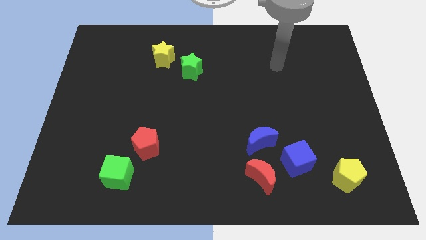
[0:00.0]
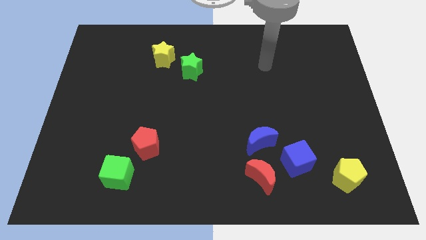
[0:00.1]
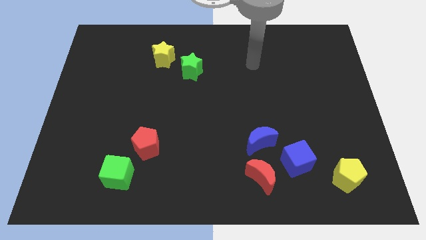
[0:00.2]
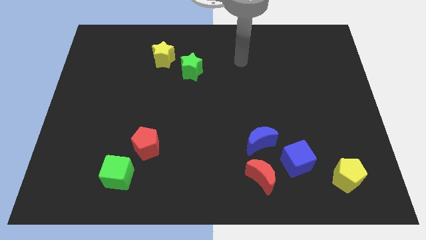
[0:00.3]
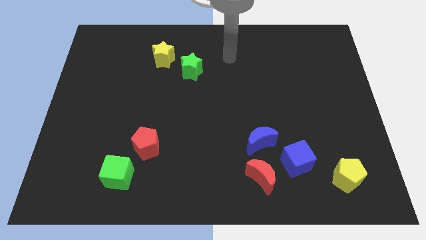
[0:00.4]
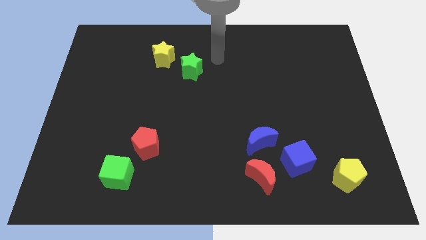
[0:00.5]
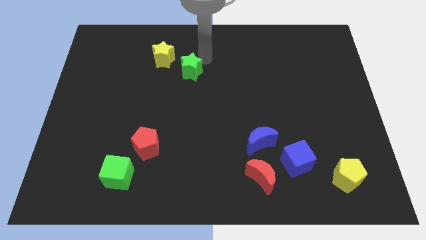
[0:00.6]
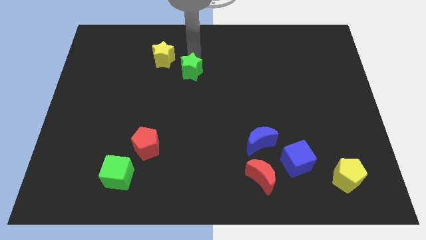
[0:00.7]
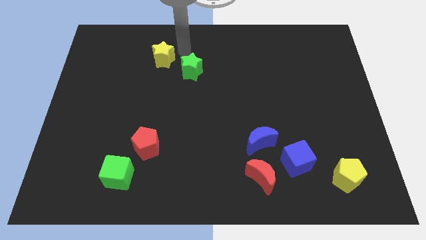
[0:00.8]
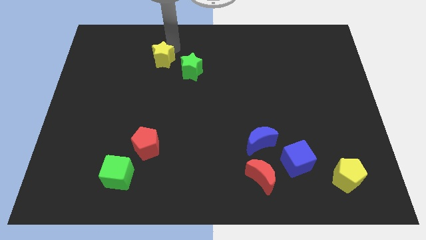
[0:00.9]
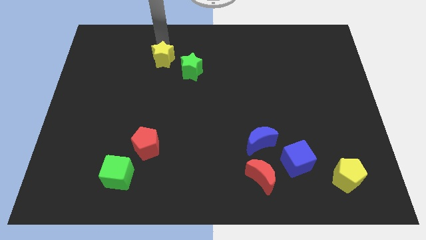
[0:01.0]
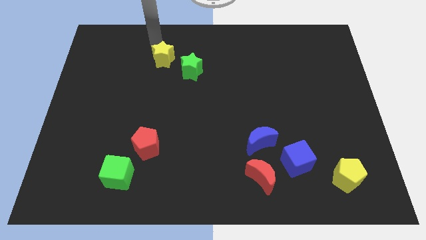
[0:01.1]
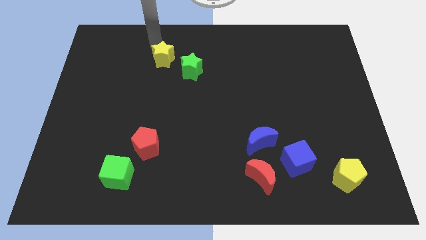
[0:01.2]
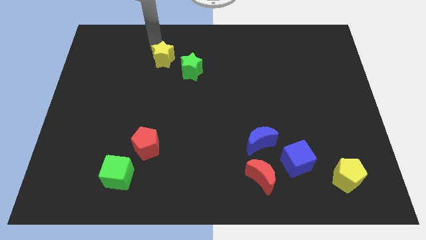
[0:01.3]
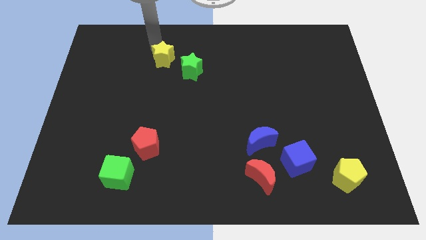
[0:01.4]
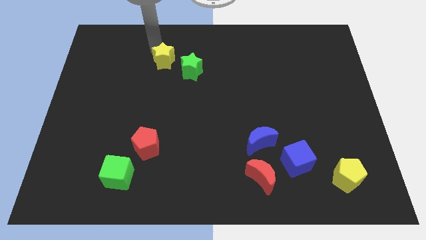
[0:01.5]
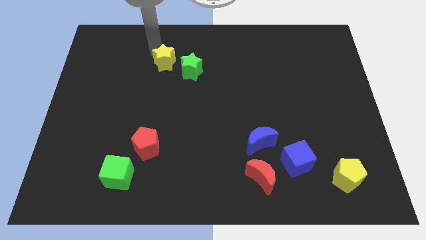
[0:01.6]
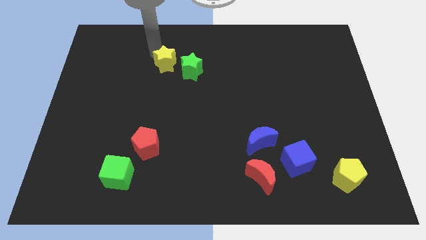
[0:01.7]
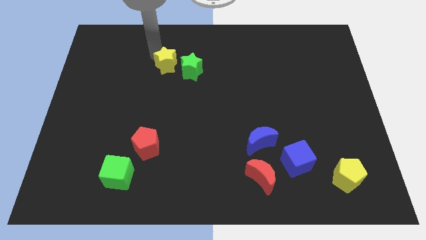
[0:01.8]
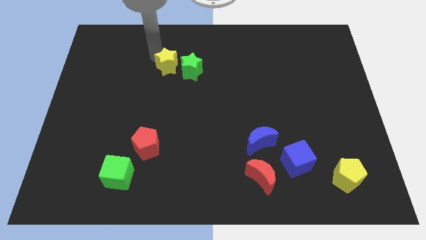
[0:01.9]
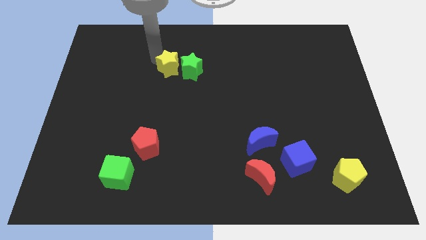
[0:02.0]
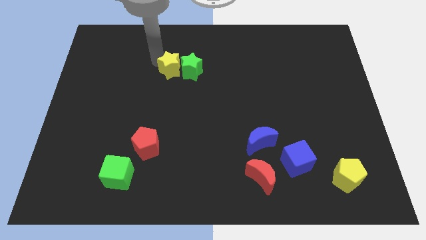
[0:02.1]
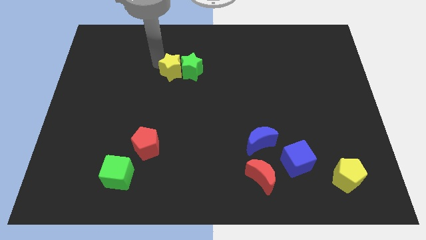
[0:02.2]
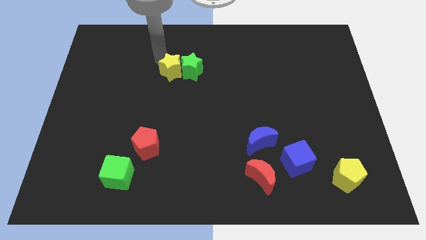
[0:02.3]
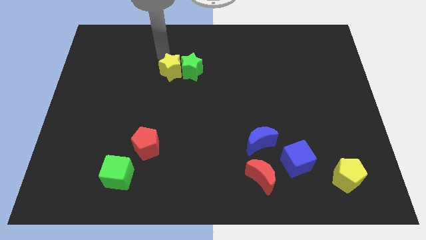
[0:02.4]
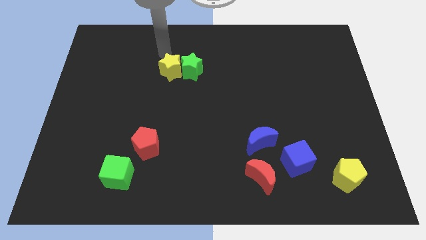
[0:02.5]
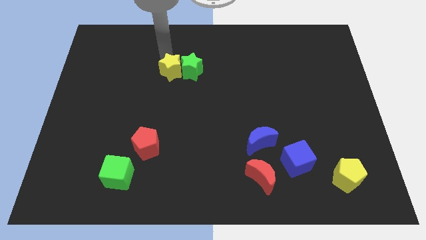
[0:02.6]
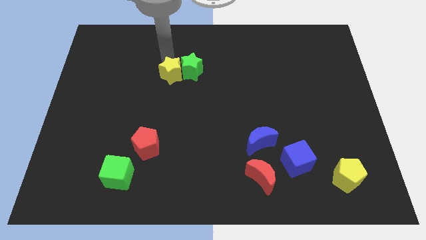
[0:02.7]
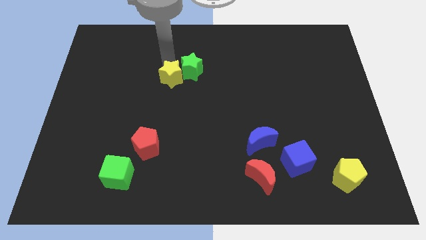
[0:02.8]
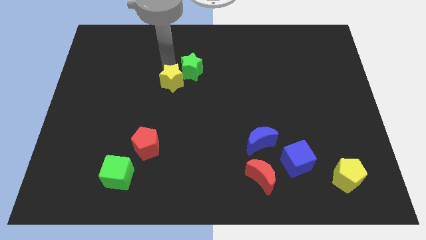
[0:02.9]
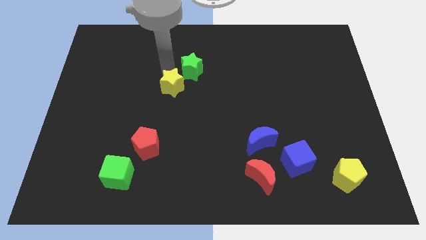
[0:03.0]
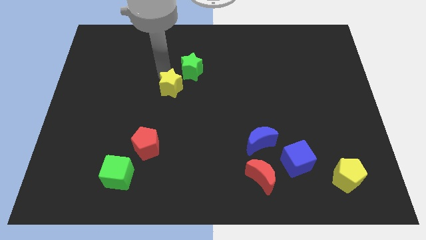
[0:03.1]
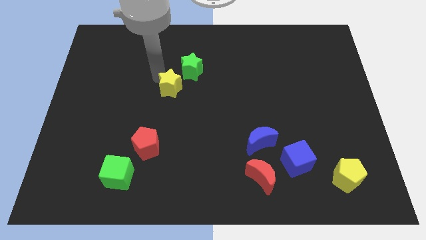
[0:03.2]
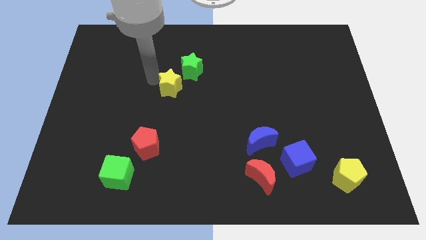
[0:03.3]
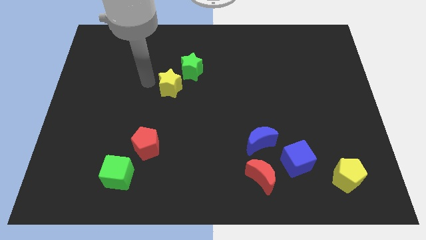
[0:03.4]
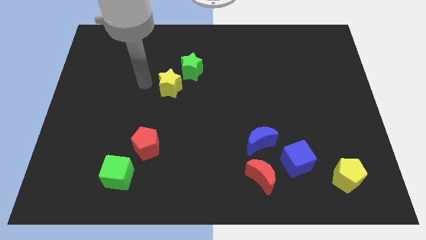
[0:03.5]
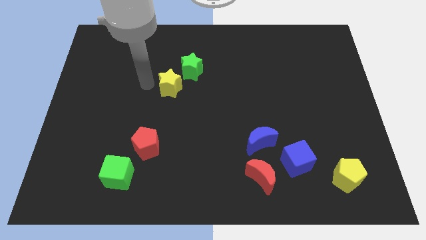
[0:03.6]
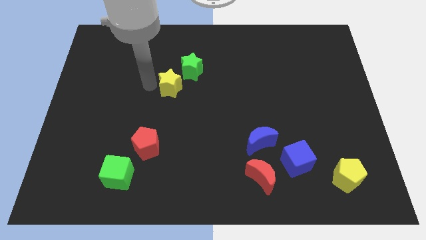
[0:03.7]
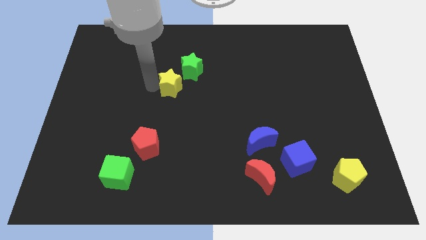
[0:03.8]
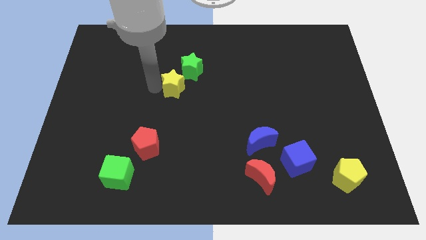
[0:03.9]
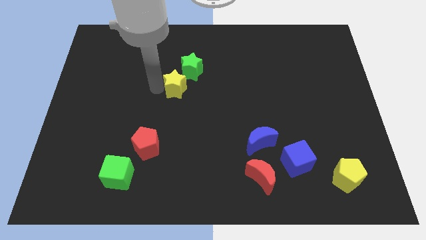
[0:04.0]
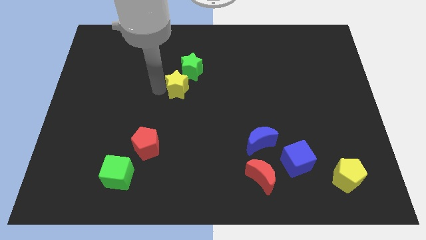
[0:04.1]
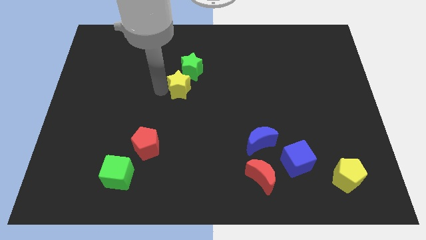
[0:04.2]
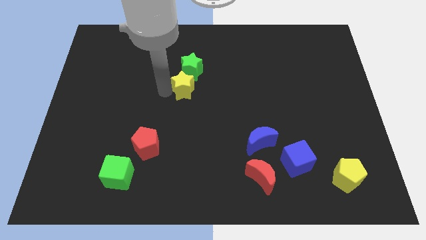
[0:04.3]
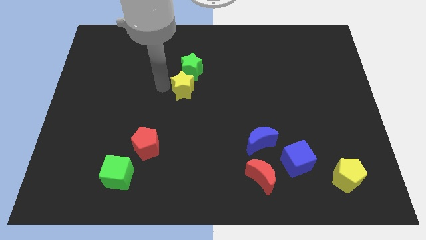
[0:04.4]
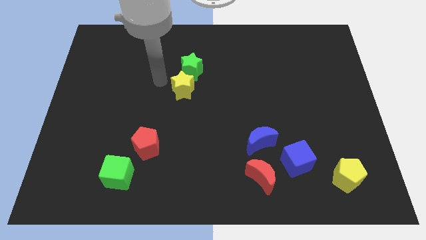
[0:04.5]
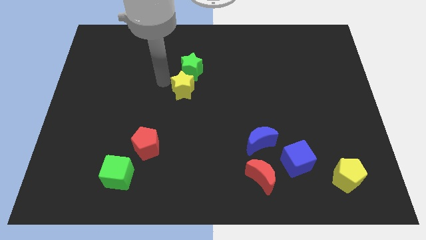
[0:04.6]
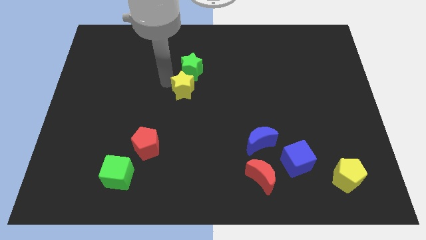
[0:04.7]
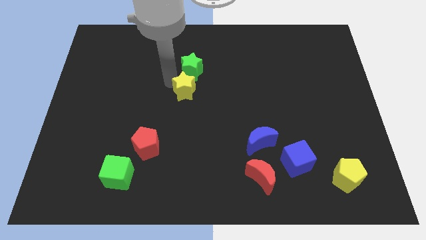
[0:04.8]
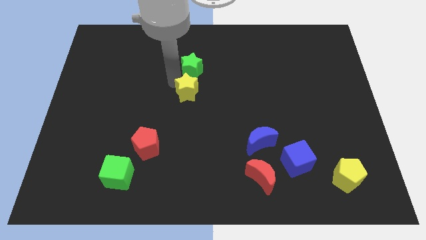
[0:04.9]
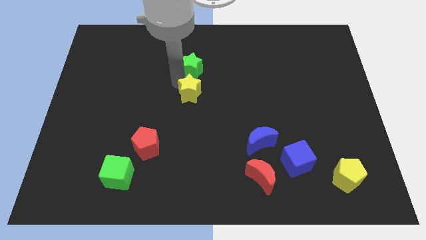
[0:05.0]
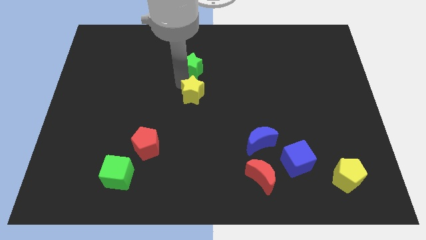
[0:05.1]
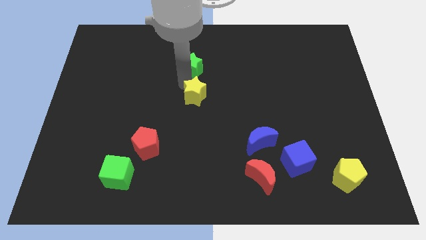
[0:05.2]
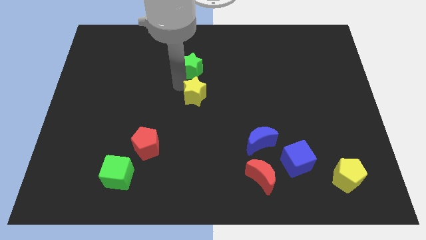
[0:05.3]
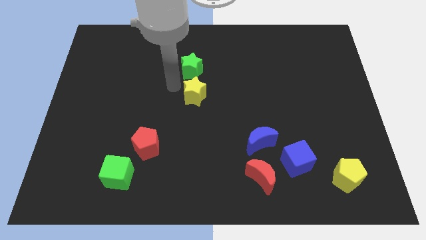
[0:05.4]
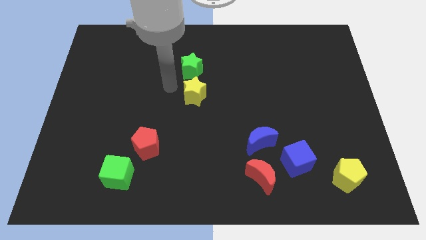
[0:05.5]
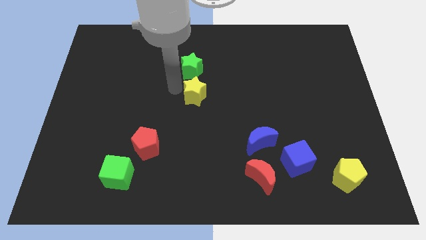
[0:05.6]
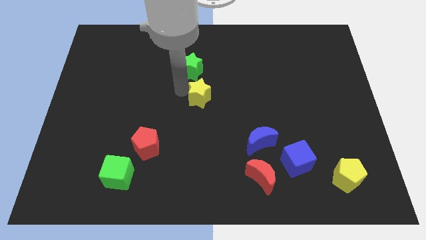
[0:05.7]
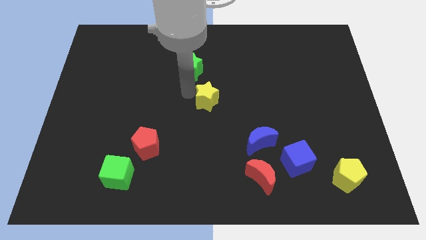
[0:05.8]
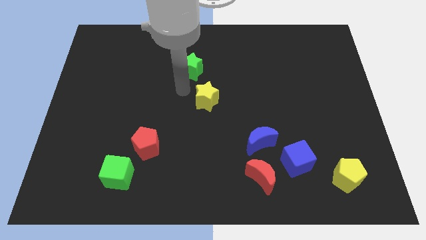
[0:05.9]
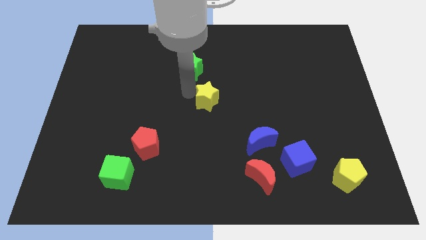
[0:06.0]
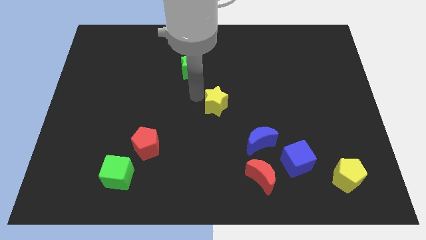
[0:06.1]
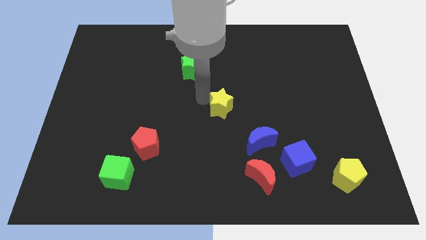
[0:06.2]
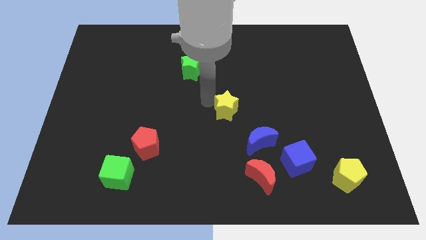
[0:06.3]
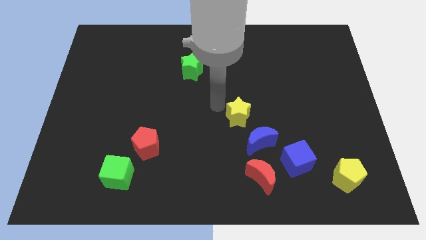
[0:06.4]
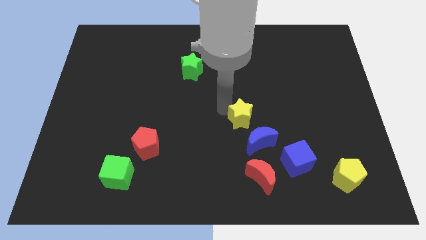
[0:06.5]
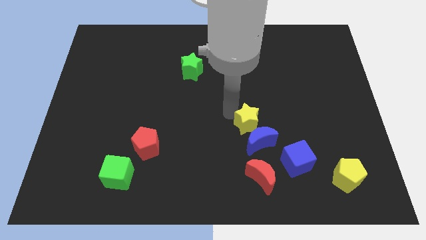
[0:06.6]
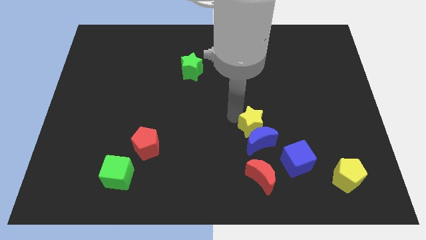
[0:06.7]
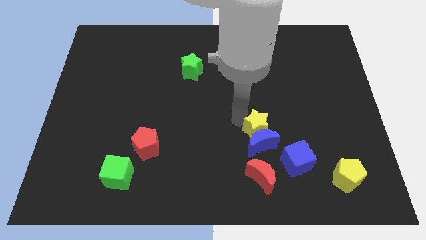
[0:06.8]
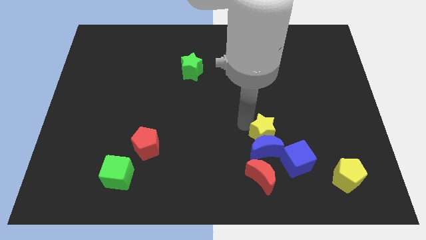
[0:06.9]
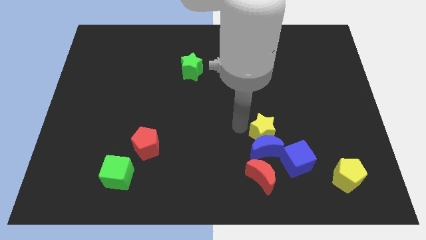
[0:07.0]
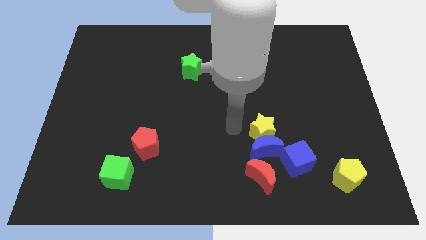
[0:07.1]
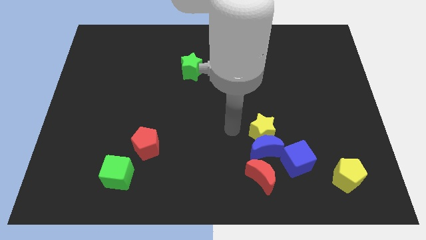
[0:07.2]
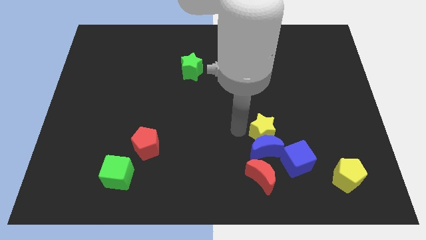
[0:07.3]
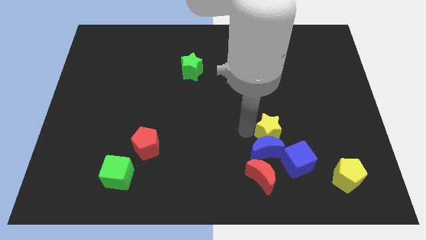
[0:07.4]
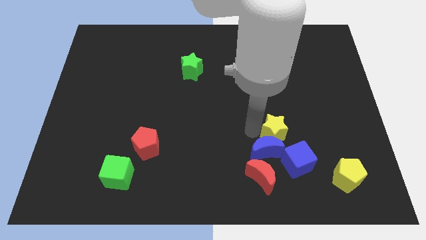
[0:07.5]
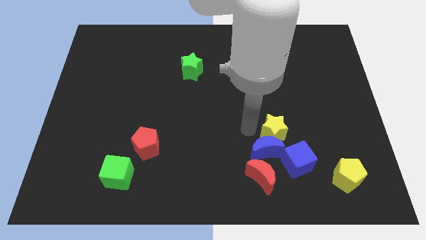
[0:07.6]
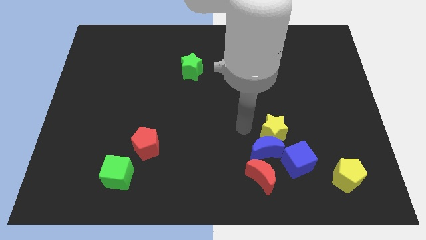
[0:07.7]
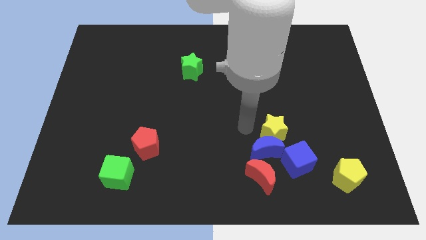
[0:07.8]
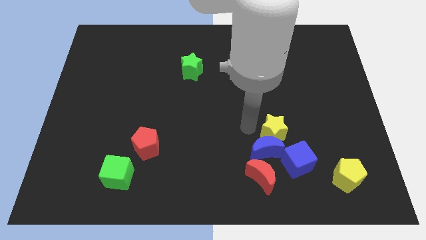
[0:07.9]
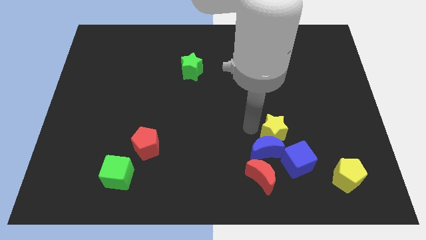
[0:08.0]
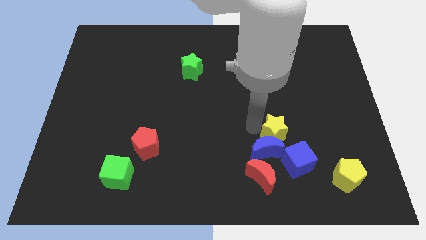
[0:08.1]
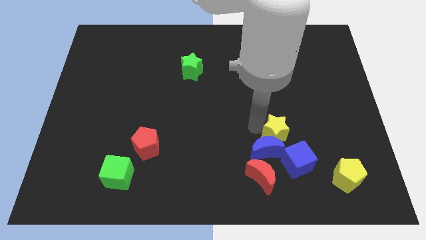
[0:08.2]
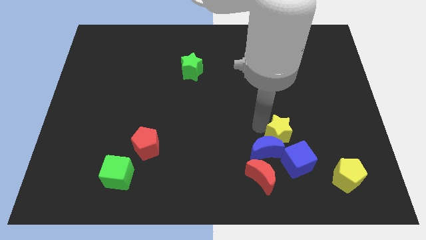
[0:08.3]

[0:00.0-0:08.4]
push the yellow star right of the blue moon
